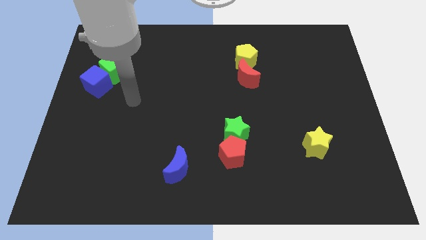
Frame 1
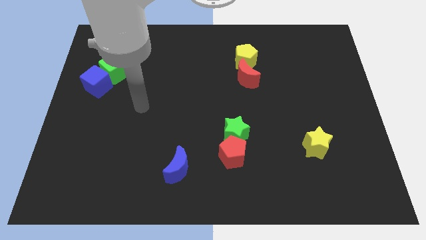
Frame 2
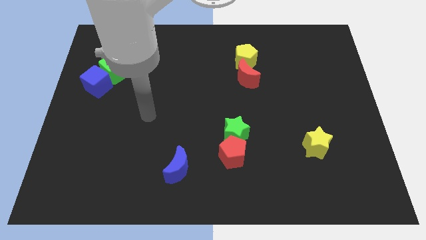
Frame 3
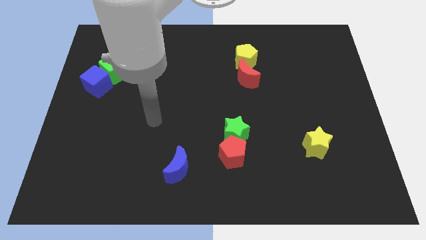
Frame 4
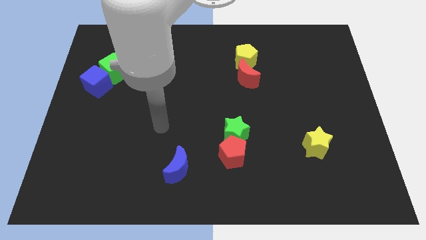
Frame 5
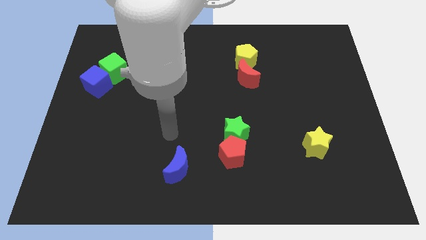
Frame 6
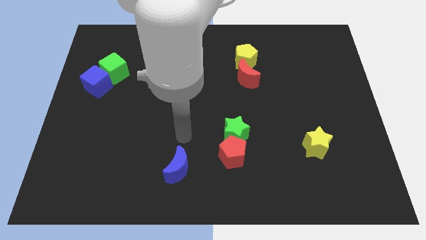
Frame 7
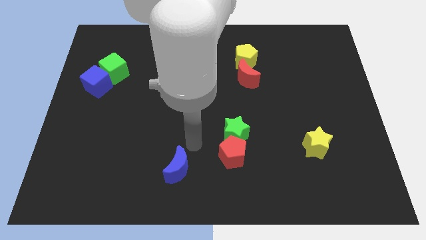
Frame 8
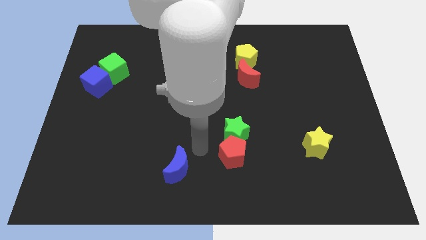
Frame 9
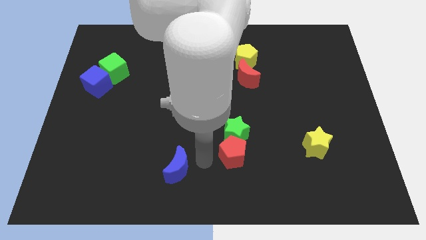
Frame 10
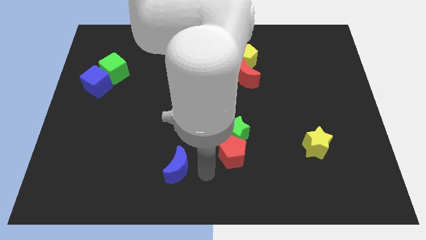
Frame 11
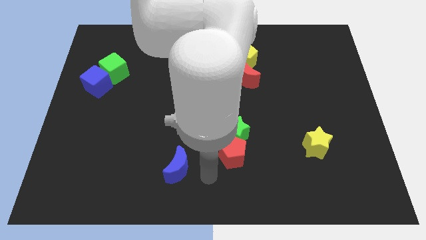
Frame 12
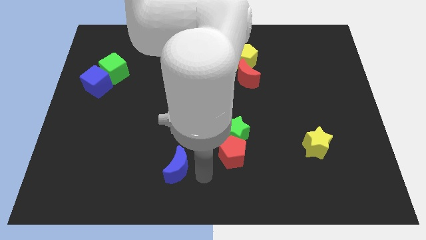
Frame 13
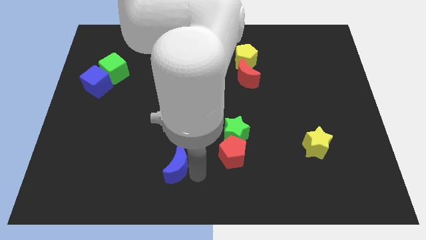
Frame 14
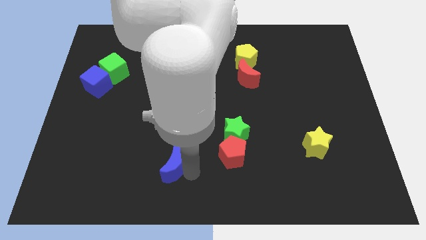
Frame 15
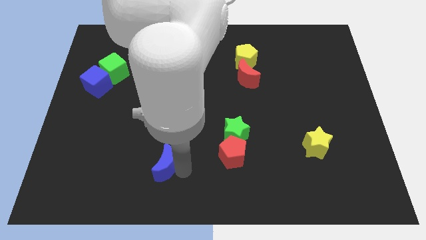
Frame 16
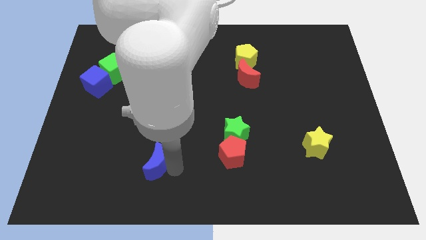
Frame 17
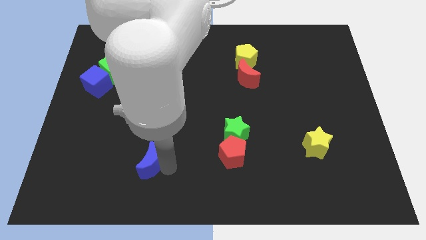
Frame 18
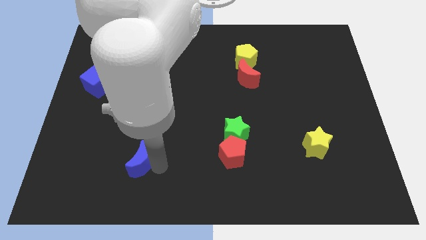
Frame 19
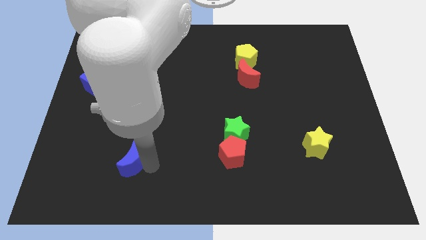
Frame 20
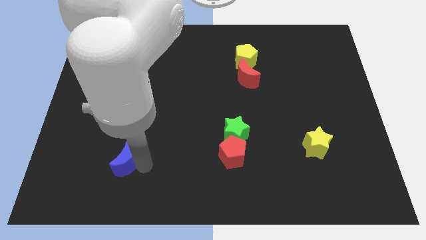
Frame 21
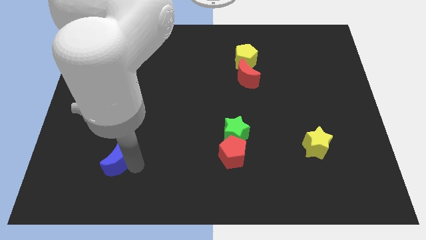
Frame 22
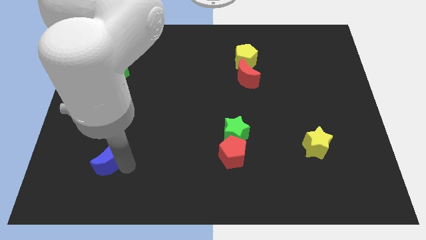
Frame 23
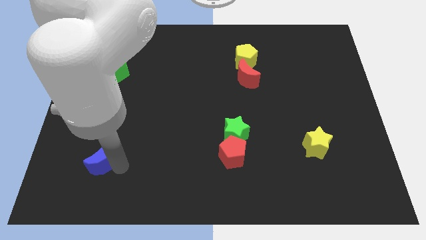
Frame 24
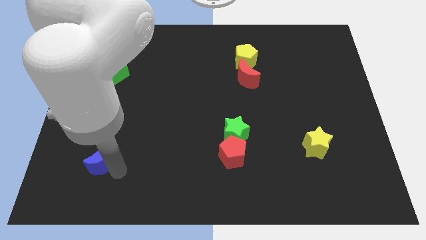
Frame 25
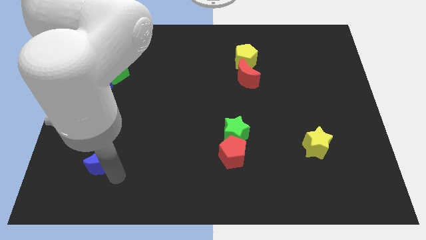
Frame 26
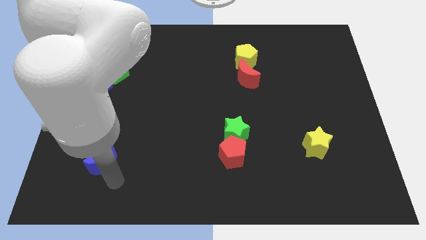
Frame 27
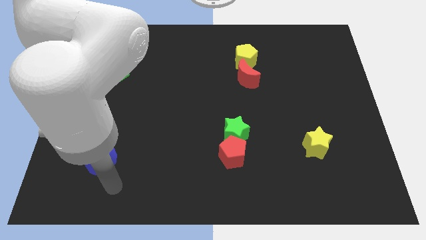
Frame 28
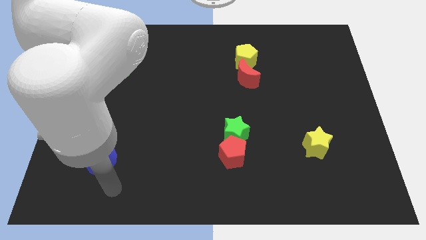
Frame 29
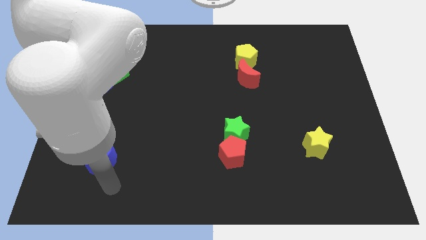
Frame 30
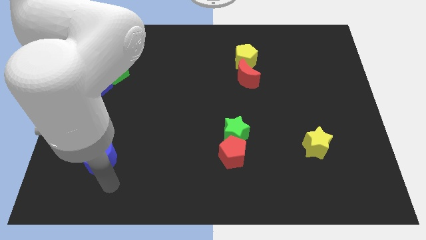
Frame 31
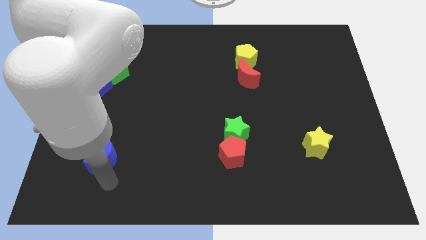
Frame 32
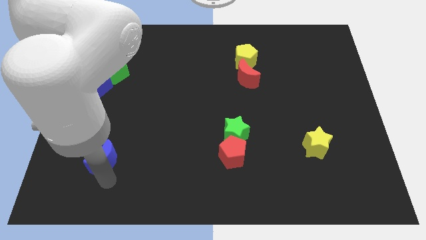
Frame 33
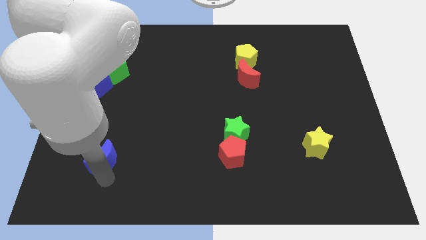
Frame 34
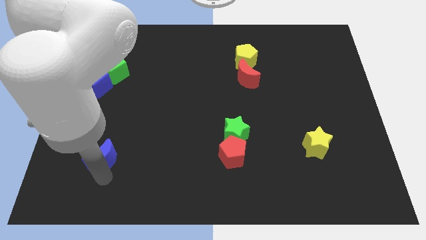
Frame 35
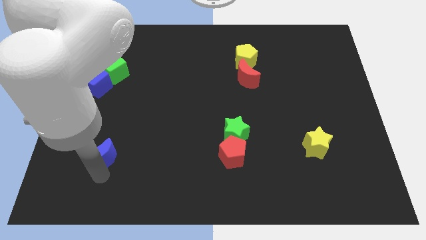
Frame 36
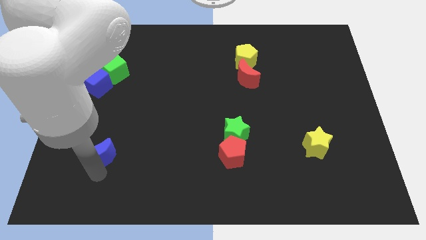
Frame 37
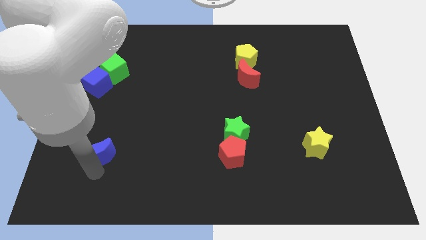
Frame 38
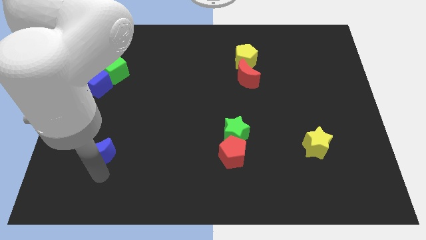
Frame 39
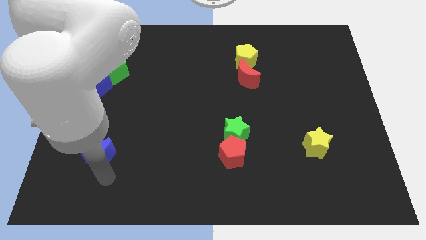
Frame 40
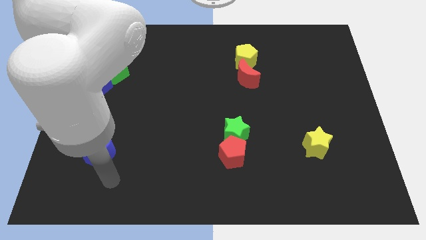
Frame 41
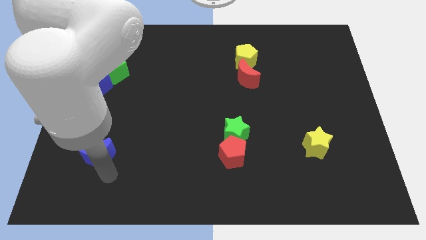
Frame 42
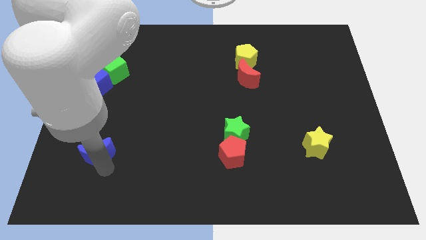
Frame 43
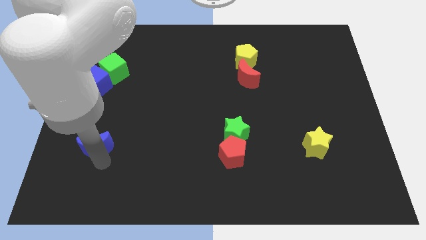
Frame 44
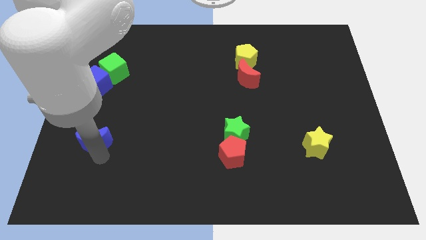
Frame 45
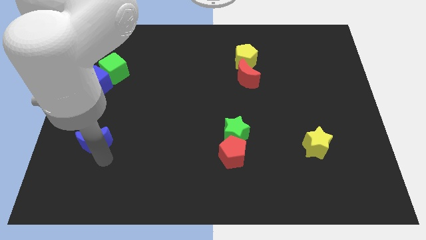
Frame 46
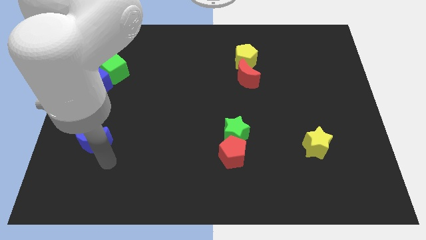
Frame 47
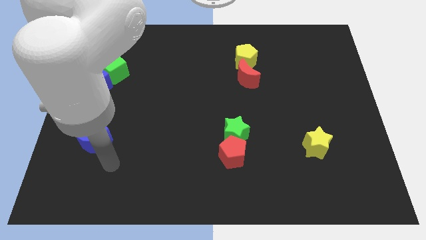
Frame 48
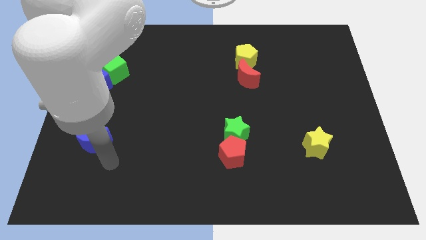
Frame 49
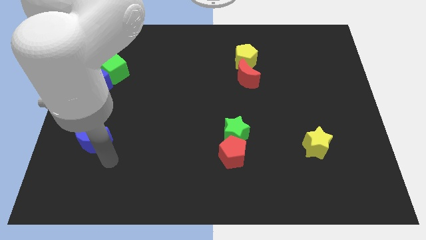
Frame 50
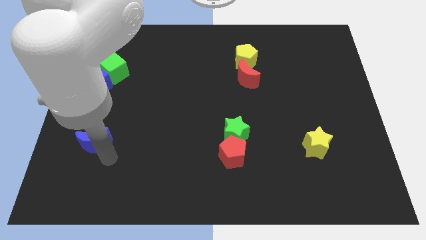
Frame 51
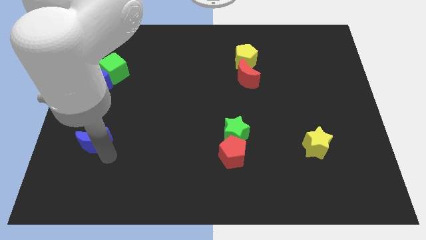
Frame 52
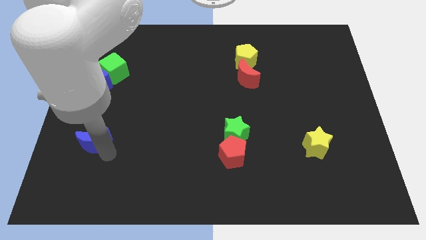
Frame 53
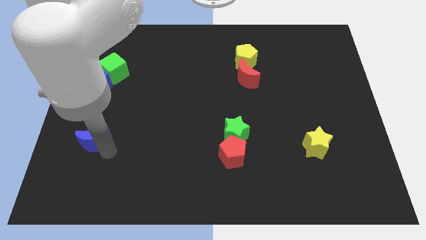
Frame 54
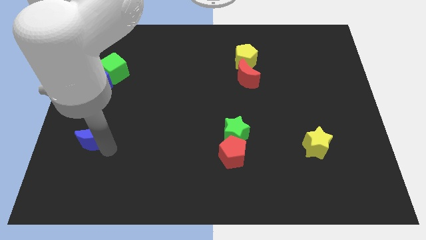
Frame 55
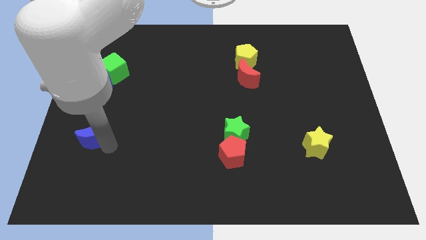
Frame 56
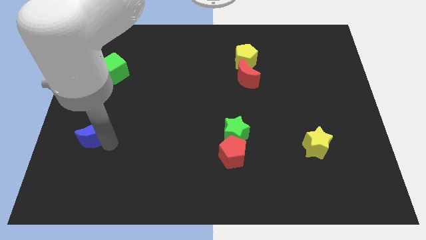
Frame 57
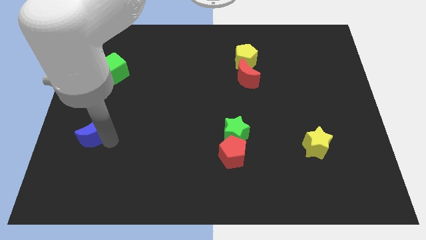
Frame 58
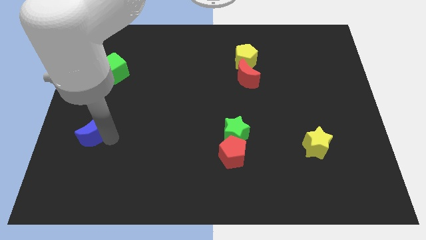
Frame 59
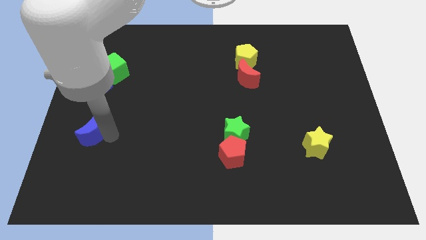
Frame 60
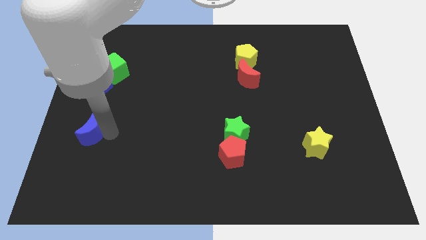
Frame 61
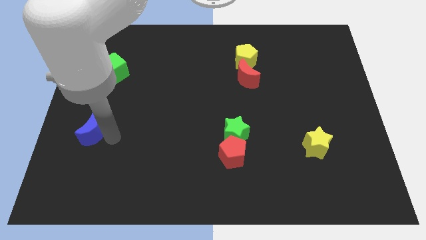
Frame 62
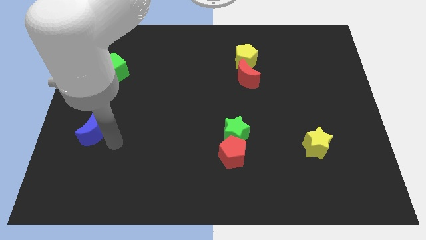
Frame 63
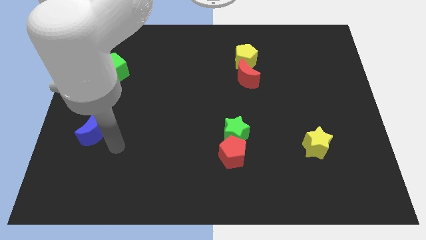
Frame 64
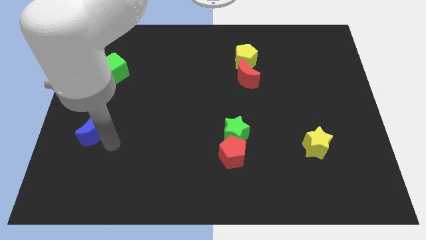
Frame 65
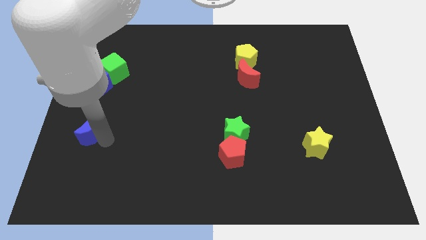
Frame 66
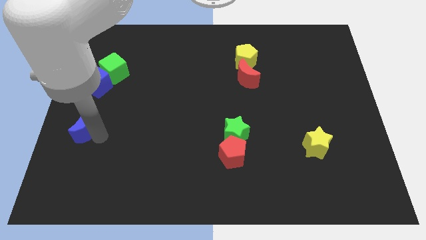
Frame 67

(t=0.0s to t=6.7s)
move the blue moon to the left side
